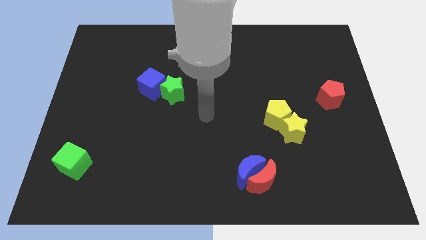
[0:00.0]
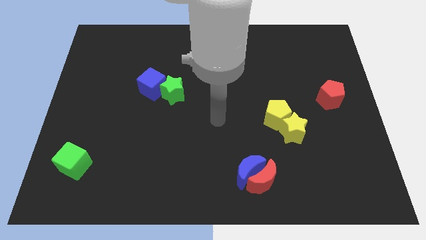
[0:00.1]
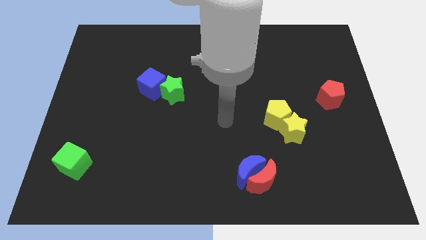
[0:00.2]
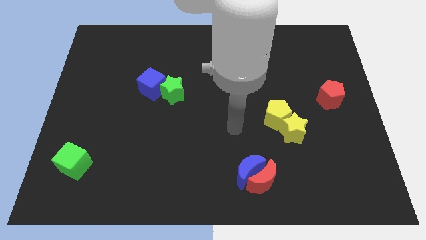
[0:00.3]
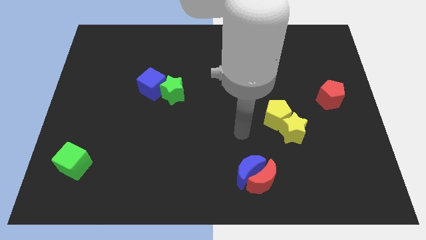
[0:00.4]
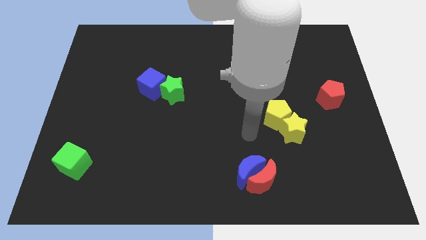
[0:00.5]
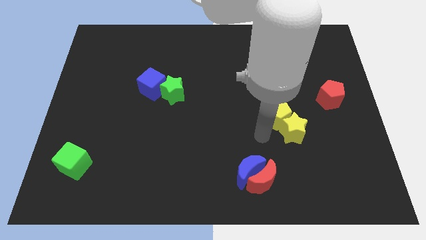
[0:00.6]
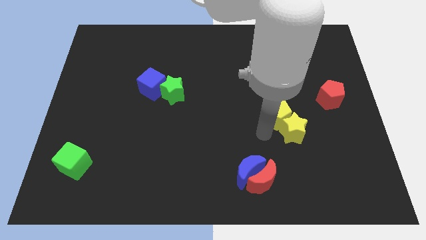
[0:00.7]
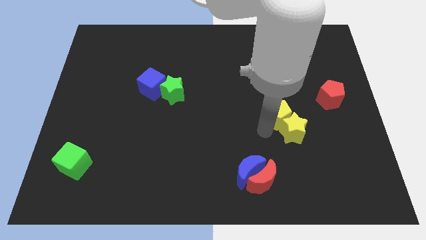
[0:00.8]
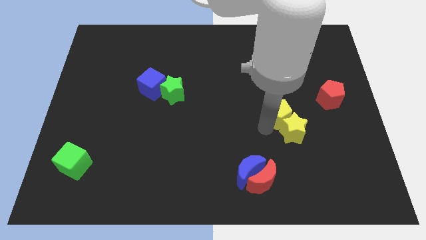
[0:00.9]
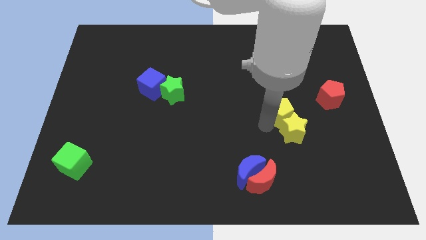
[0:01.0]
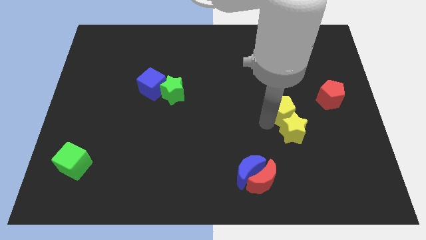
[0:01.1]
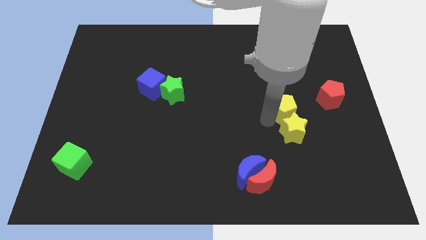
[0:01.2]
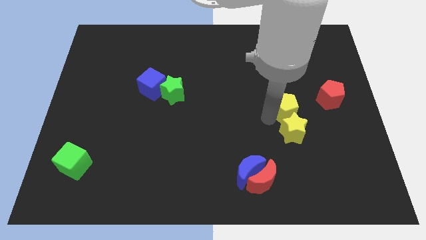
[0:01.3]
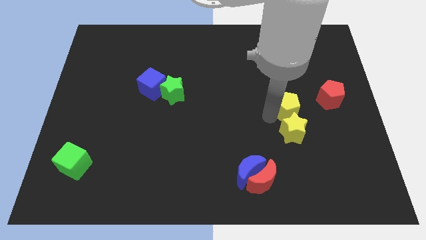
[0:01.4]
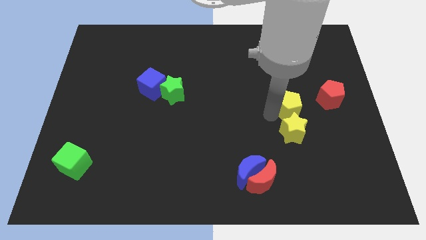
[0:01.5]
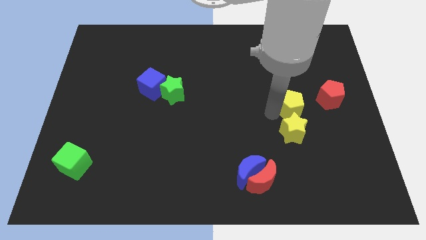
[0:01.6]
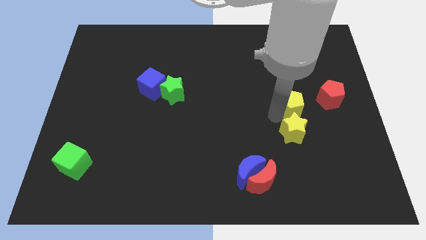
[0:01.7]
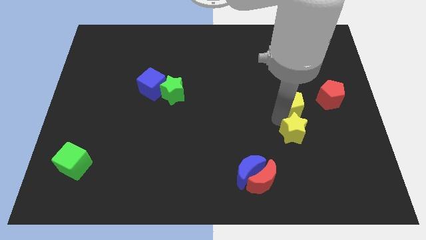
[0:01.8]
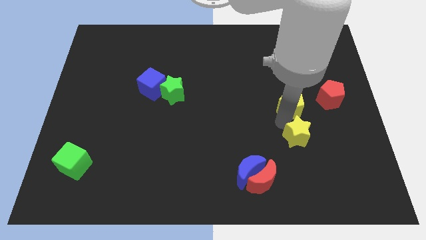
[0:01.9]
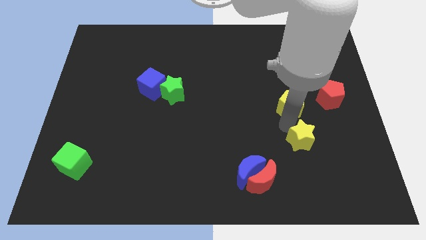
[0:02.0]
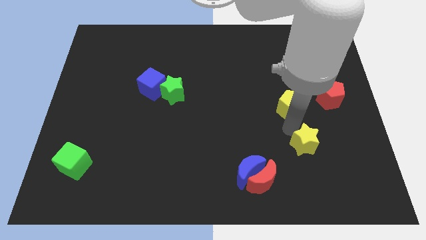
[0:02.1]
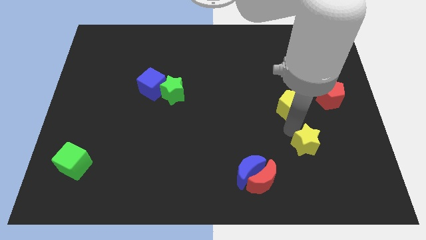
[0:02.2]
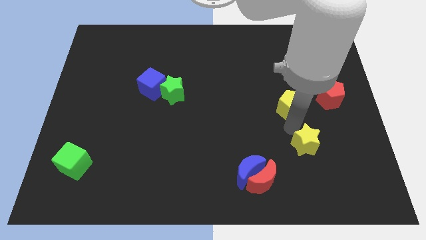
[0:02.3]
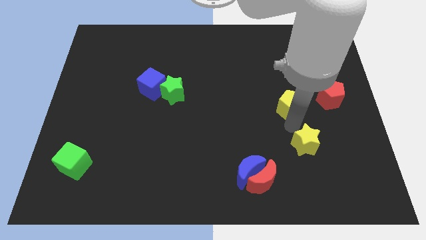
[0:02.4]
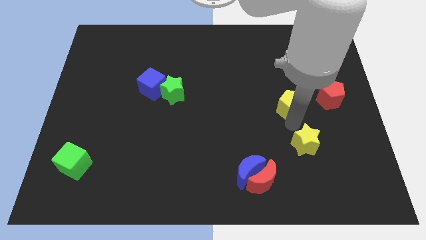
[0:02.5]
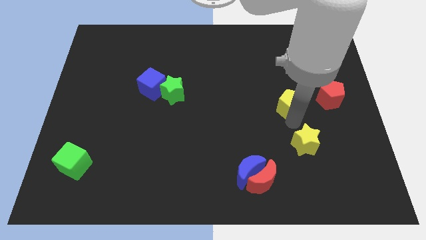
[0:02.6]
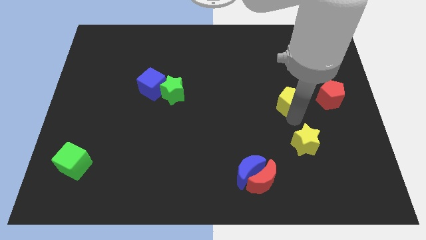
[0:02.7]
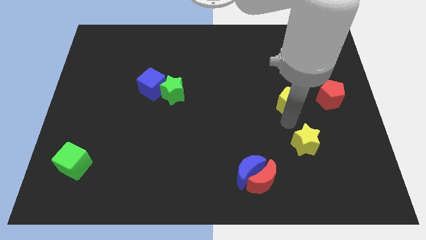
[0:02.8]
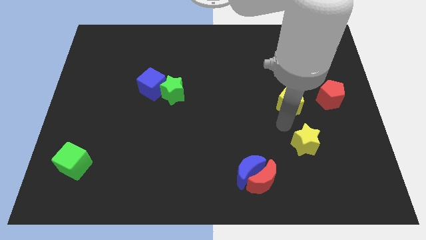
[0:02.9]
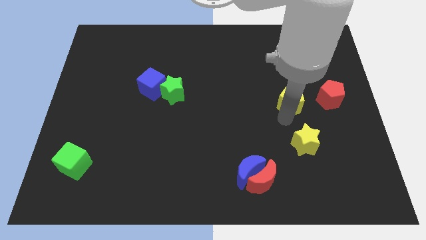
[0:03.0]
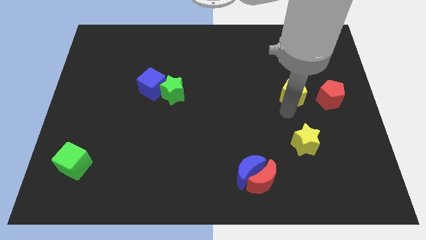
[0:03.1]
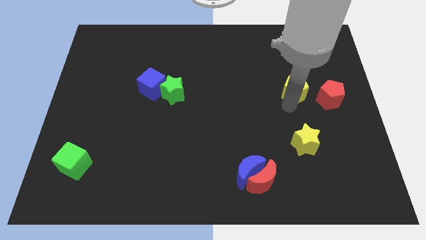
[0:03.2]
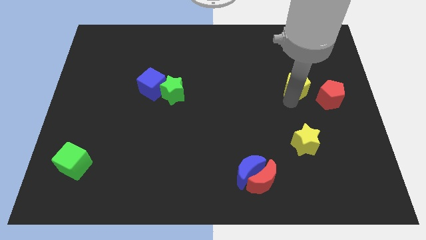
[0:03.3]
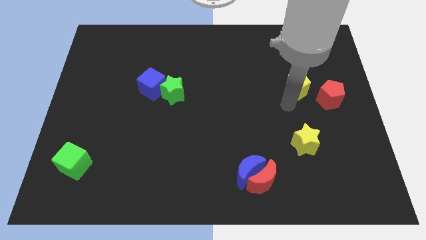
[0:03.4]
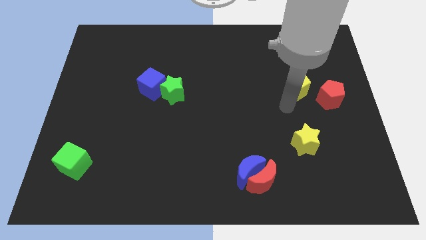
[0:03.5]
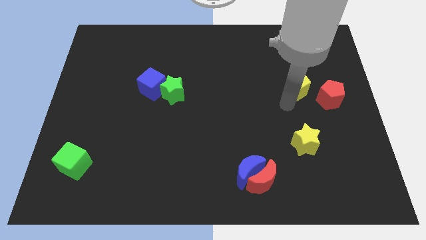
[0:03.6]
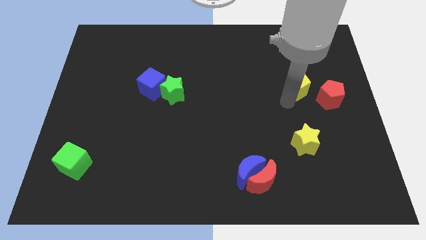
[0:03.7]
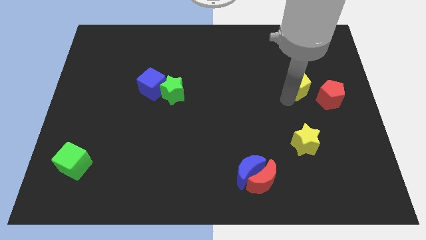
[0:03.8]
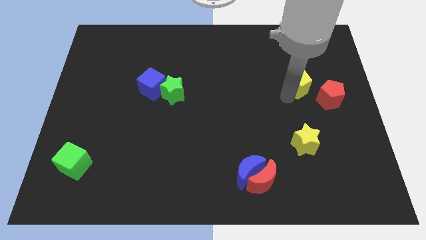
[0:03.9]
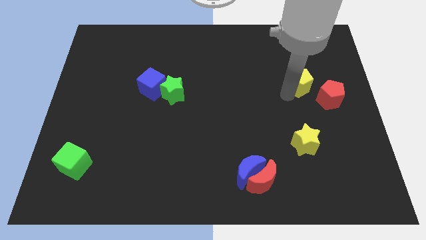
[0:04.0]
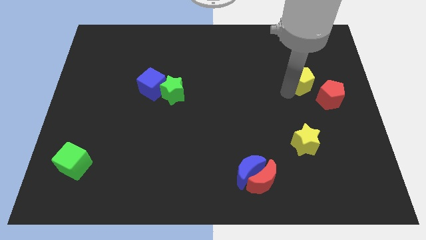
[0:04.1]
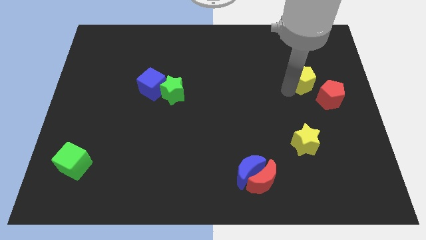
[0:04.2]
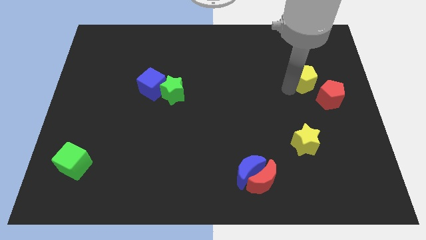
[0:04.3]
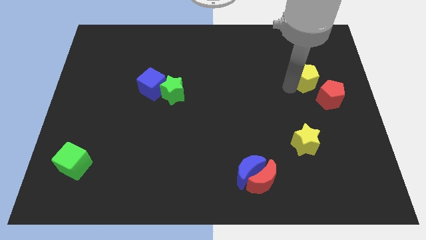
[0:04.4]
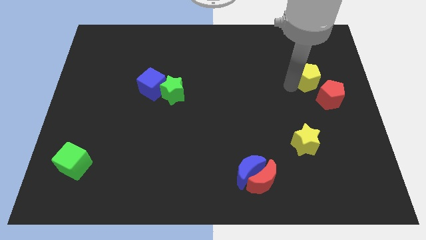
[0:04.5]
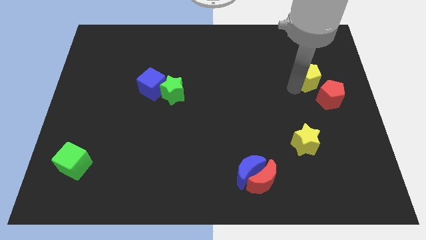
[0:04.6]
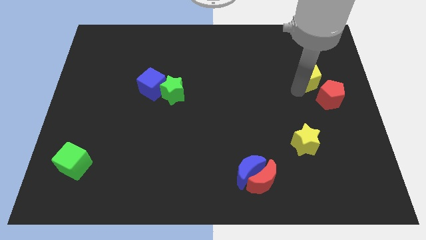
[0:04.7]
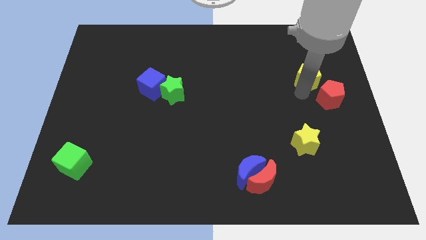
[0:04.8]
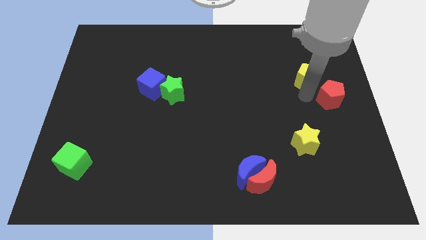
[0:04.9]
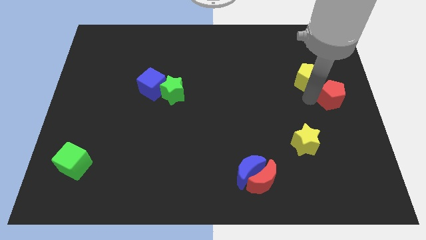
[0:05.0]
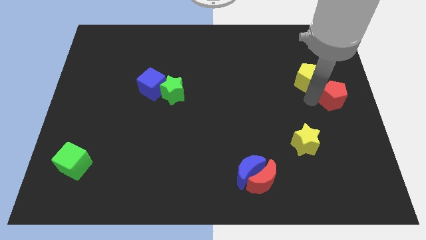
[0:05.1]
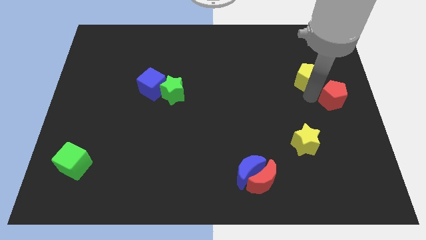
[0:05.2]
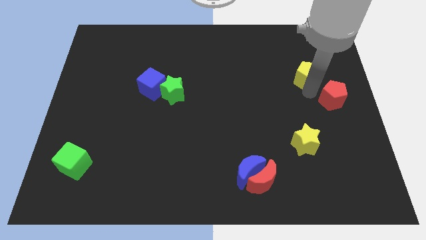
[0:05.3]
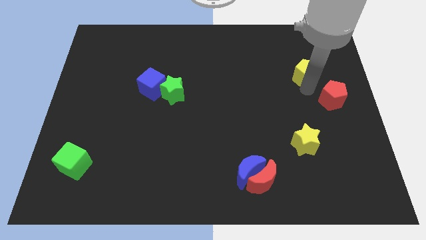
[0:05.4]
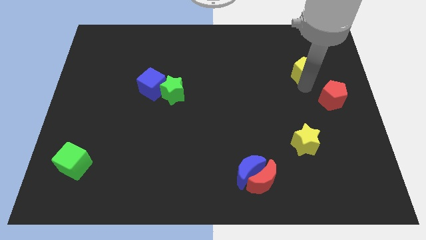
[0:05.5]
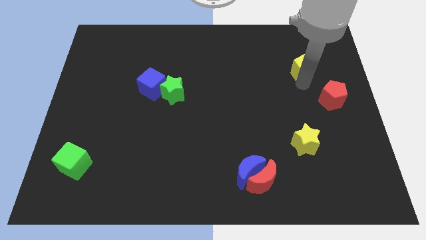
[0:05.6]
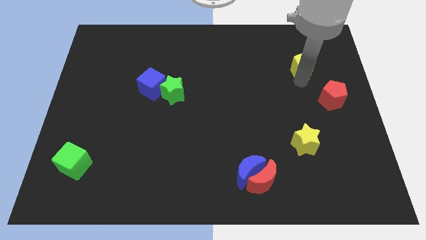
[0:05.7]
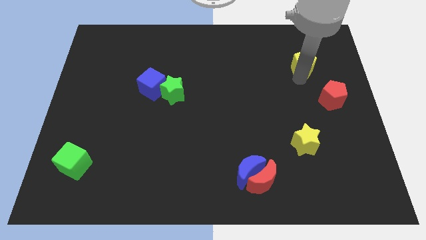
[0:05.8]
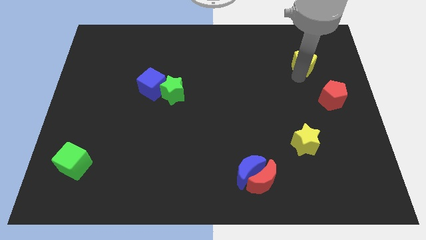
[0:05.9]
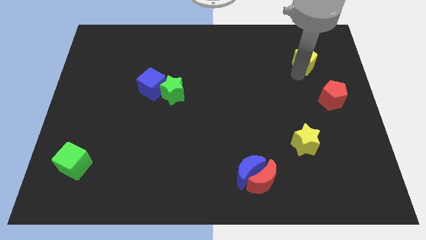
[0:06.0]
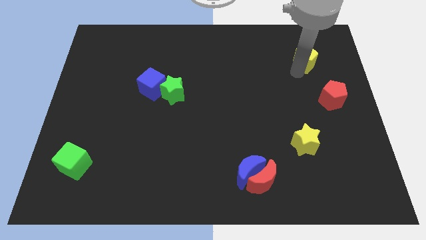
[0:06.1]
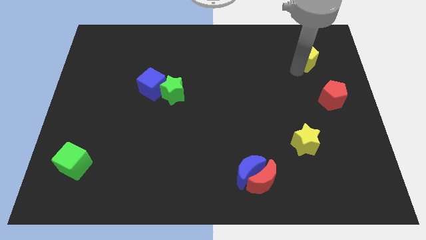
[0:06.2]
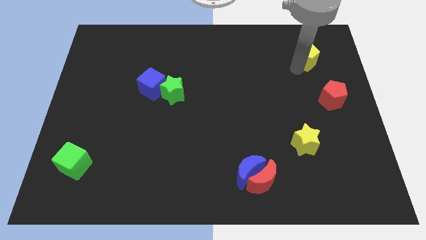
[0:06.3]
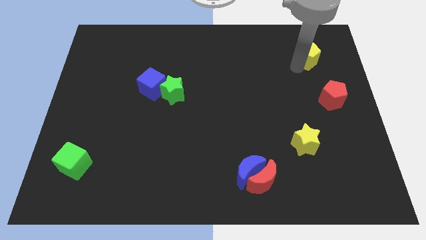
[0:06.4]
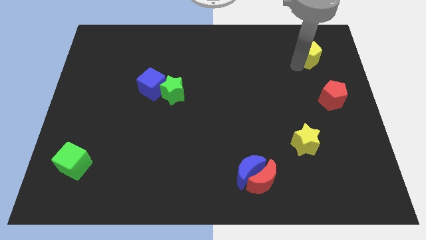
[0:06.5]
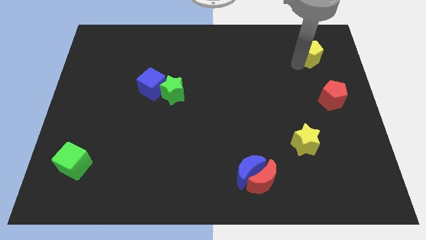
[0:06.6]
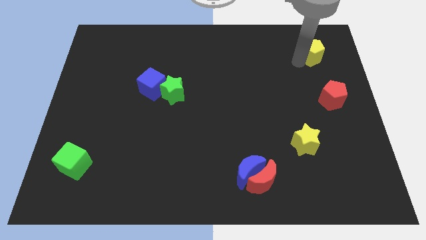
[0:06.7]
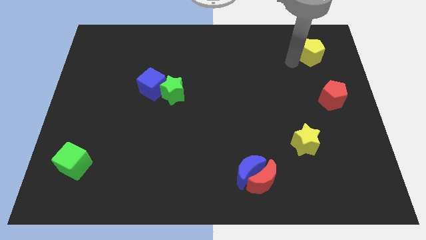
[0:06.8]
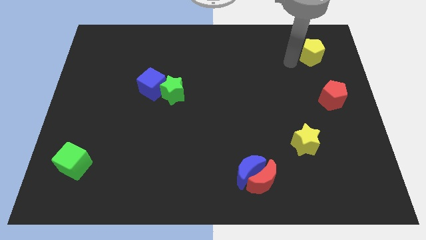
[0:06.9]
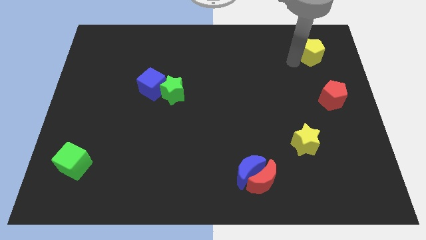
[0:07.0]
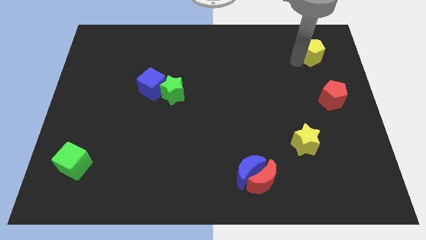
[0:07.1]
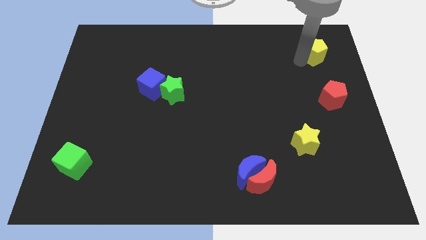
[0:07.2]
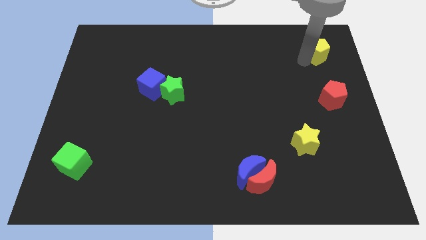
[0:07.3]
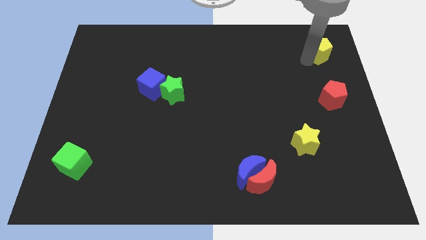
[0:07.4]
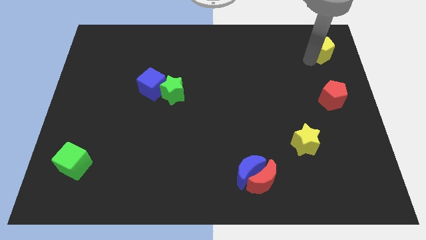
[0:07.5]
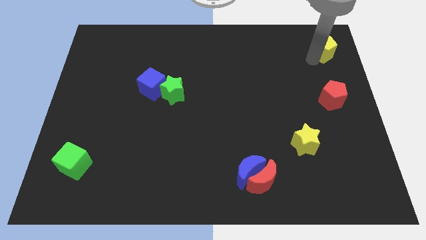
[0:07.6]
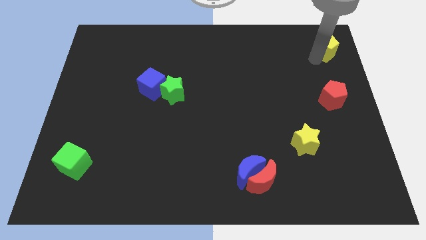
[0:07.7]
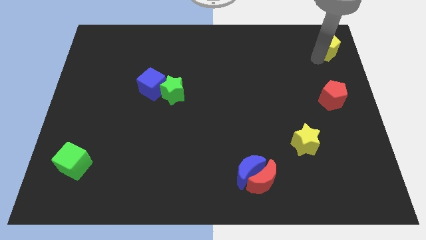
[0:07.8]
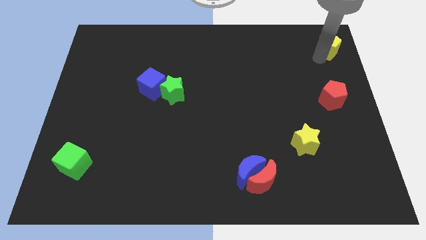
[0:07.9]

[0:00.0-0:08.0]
push the yellow pentagon to the upper right corner
